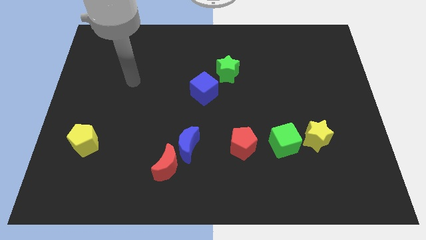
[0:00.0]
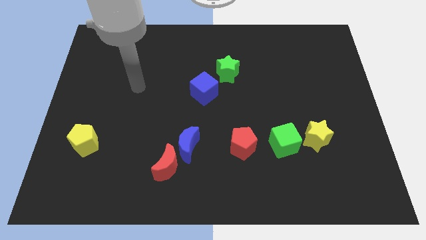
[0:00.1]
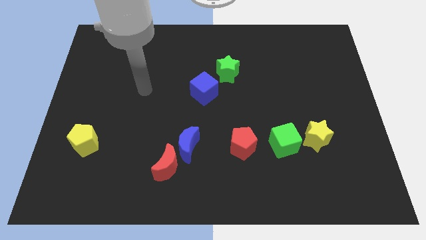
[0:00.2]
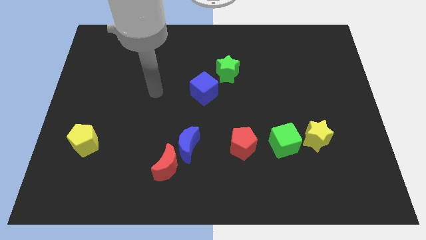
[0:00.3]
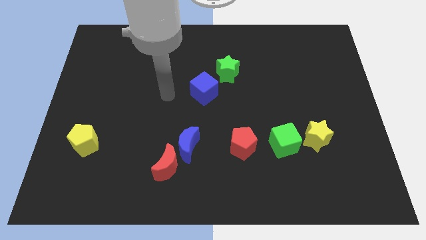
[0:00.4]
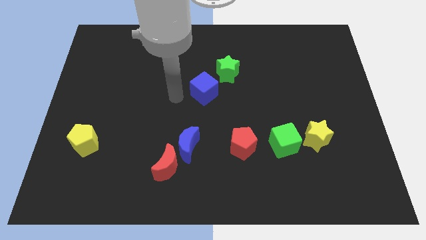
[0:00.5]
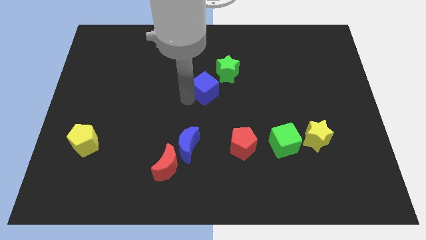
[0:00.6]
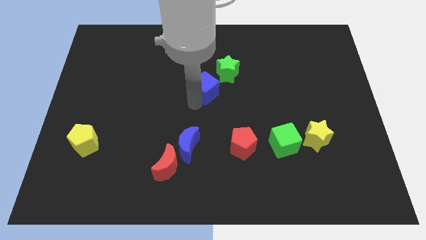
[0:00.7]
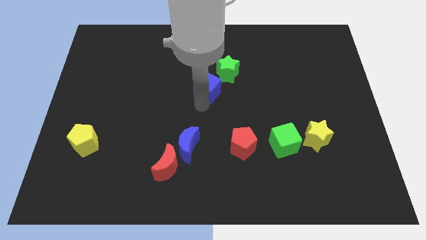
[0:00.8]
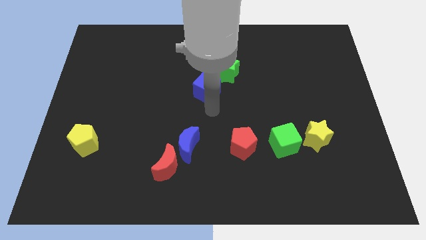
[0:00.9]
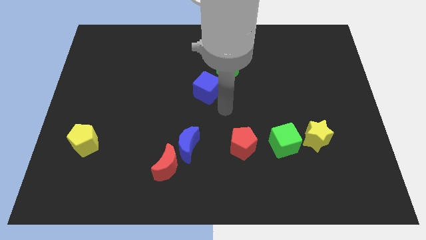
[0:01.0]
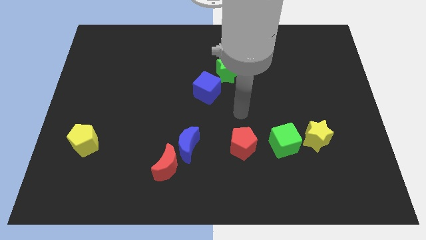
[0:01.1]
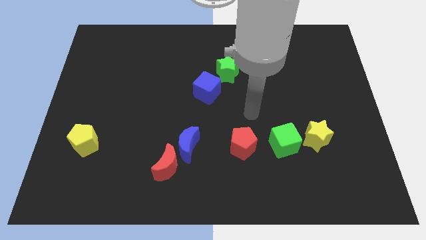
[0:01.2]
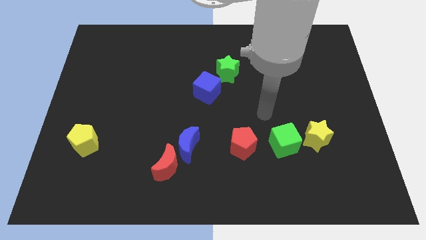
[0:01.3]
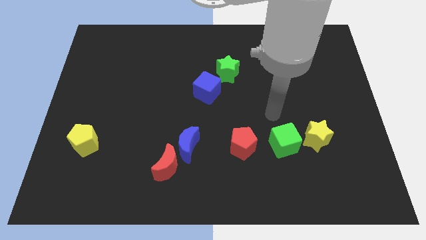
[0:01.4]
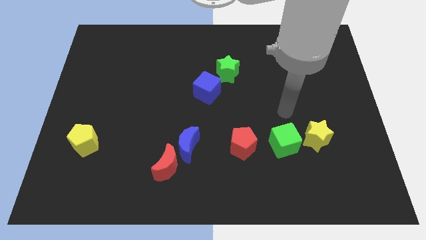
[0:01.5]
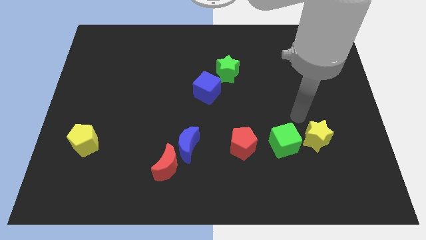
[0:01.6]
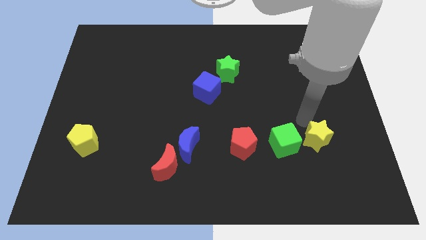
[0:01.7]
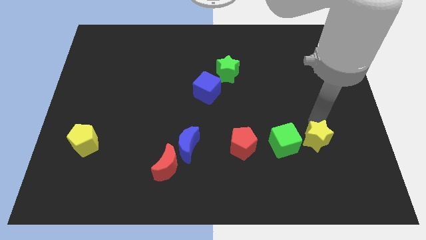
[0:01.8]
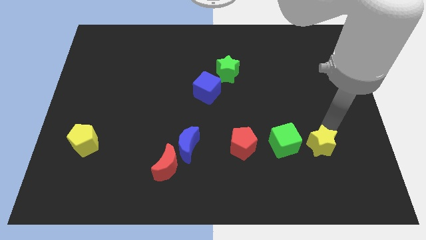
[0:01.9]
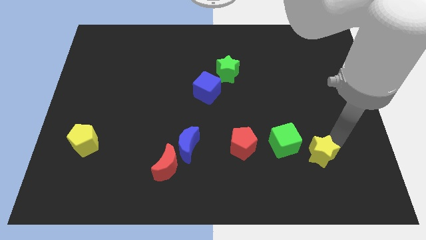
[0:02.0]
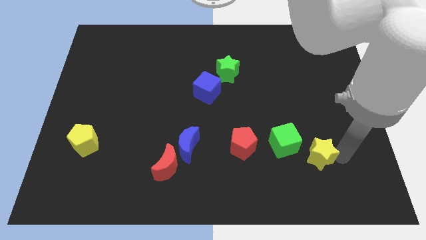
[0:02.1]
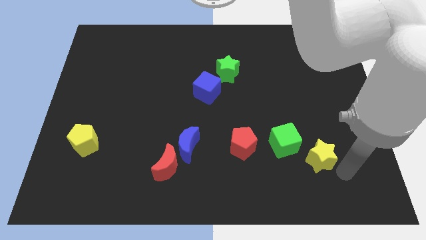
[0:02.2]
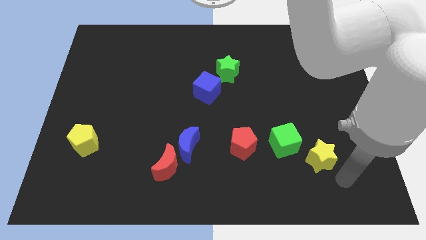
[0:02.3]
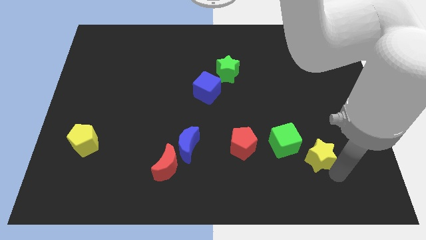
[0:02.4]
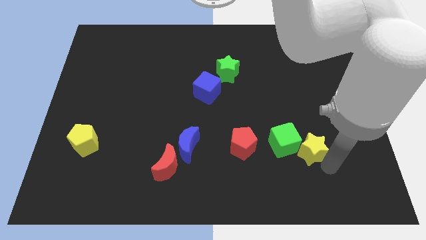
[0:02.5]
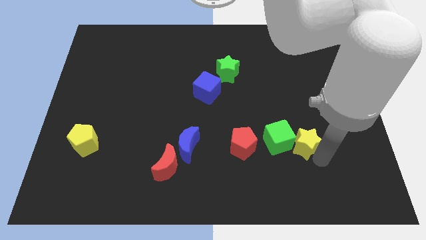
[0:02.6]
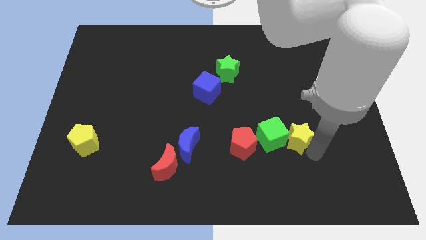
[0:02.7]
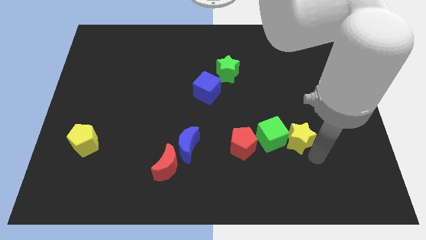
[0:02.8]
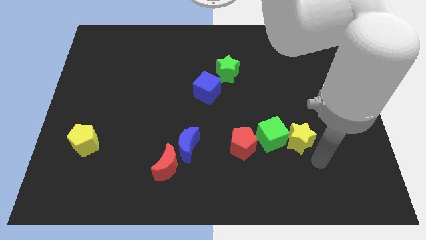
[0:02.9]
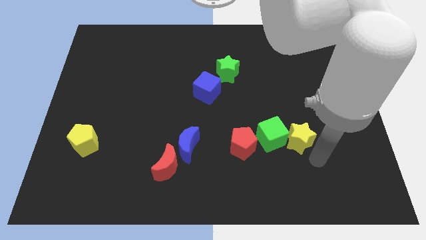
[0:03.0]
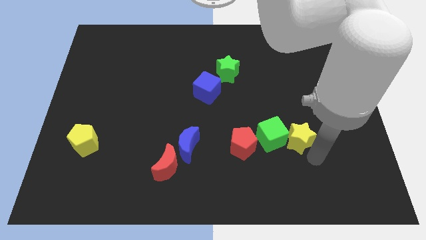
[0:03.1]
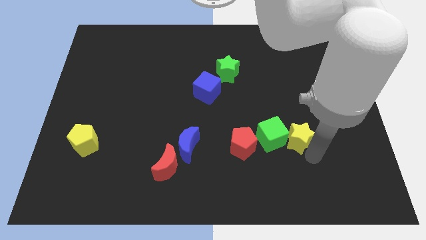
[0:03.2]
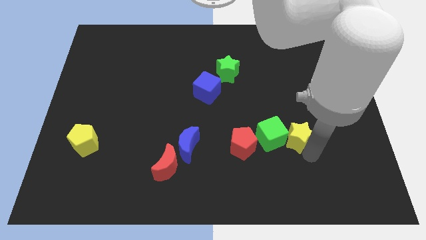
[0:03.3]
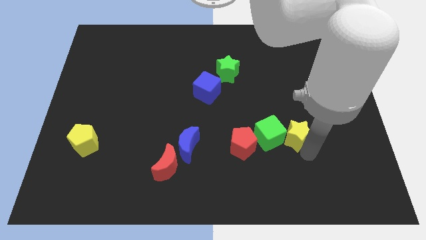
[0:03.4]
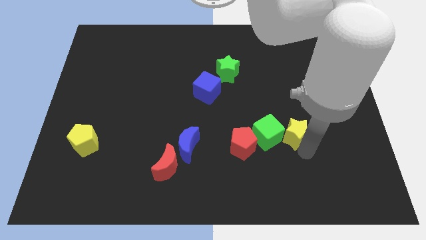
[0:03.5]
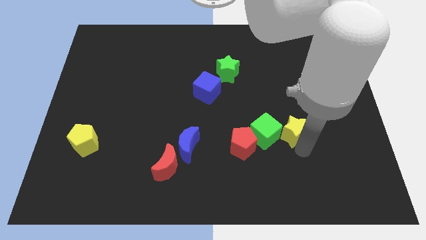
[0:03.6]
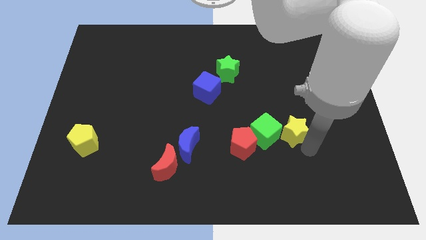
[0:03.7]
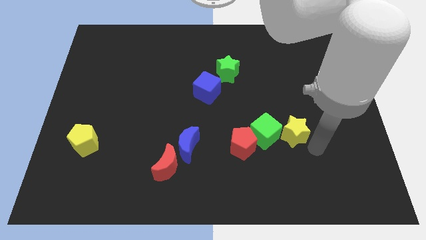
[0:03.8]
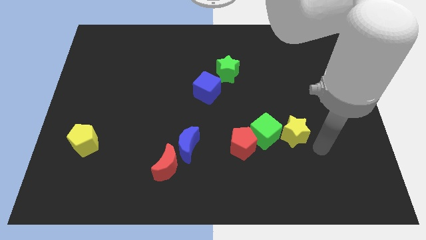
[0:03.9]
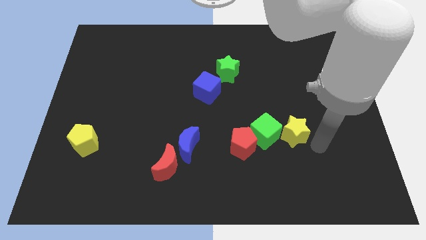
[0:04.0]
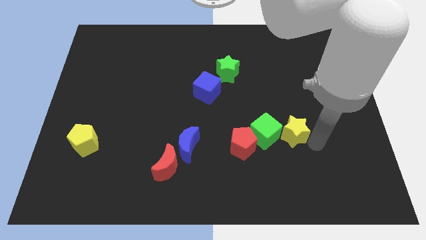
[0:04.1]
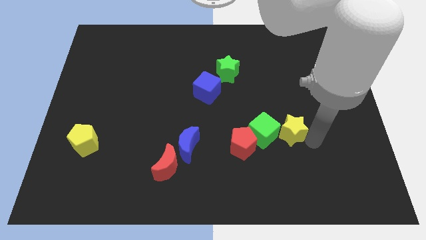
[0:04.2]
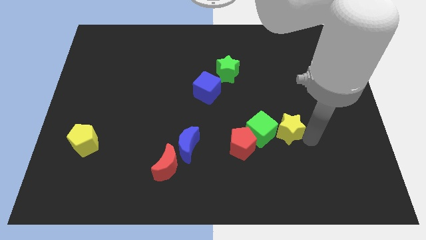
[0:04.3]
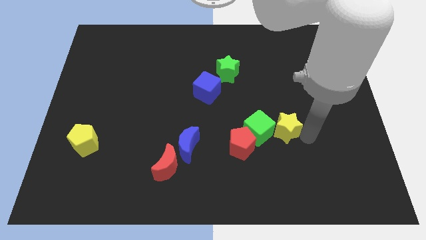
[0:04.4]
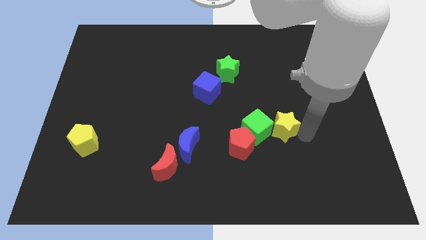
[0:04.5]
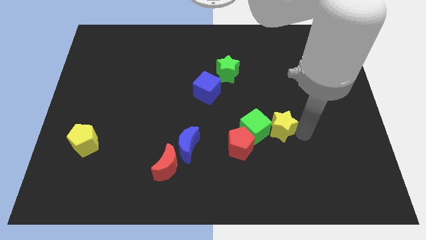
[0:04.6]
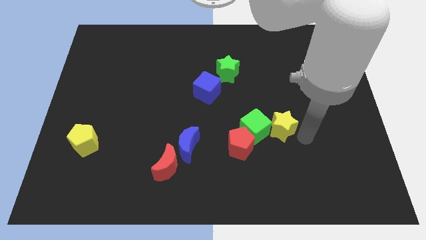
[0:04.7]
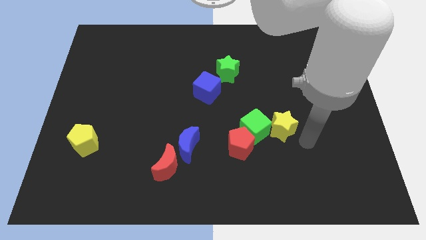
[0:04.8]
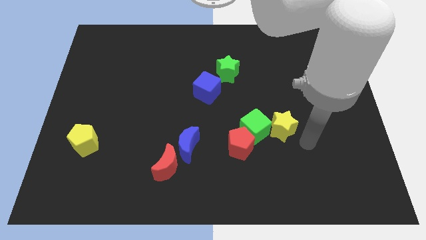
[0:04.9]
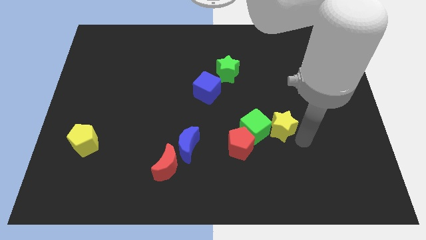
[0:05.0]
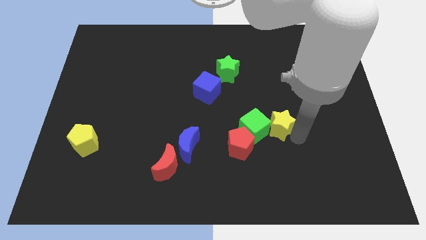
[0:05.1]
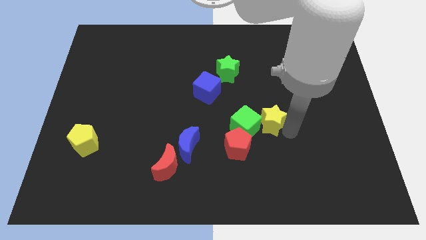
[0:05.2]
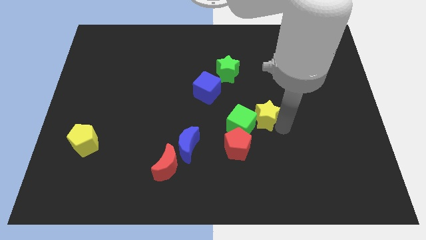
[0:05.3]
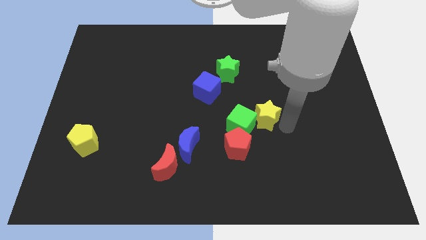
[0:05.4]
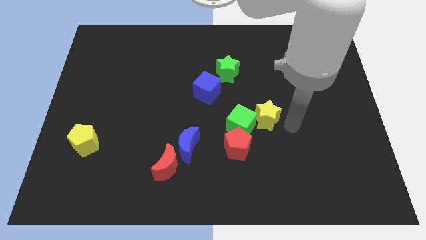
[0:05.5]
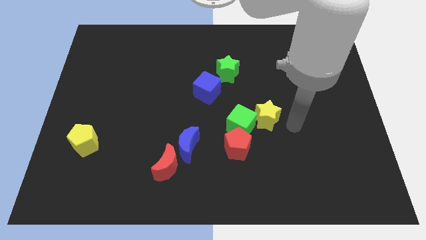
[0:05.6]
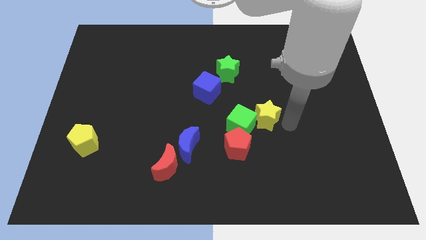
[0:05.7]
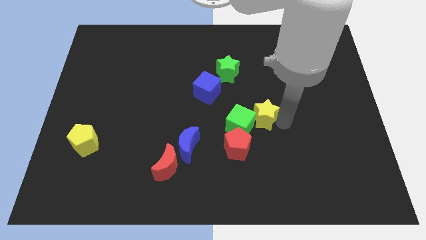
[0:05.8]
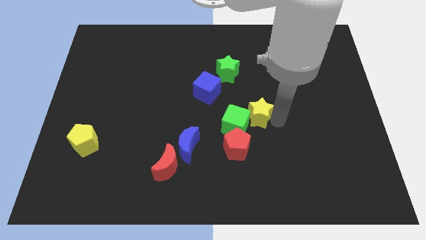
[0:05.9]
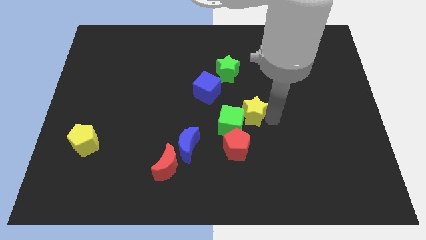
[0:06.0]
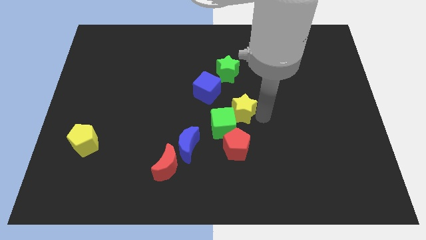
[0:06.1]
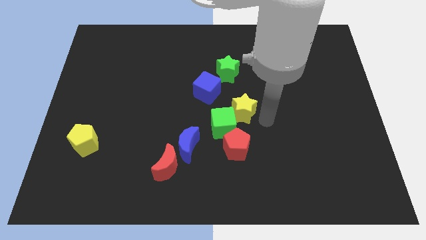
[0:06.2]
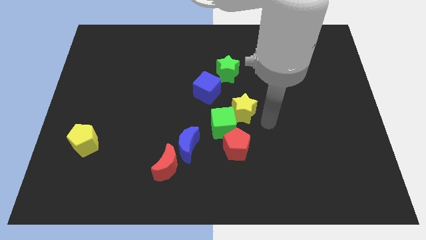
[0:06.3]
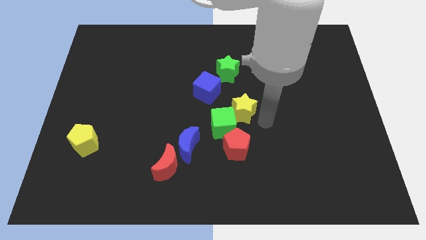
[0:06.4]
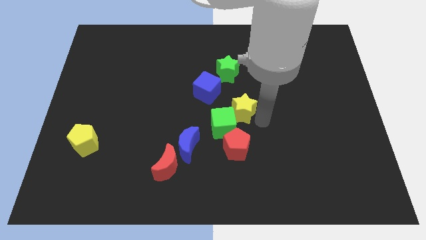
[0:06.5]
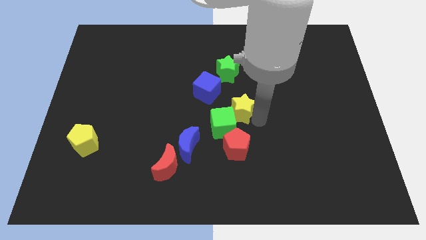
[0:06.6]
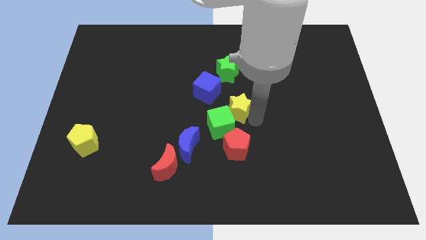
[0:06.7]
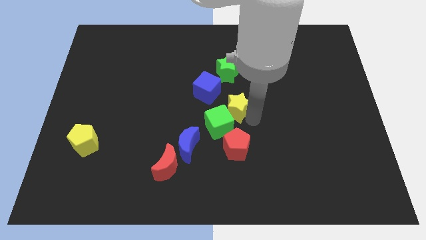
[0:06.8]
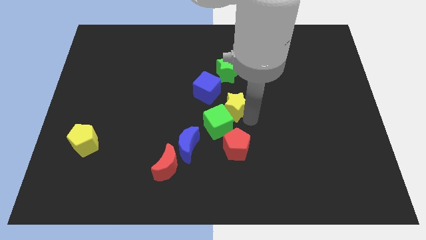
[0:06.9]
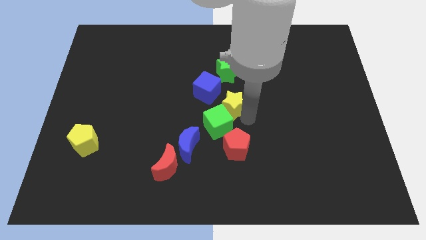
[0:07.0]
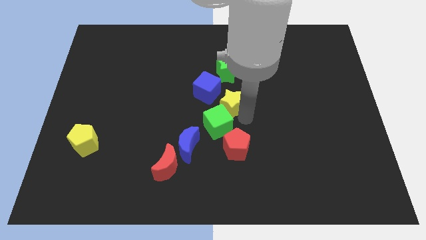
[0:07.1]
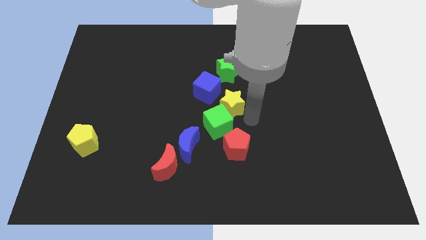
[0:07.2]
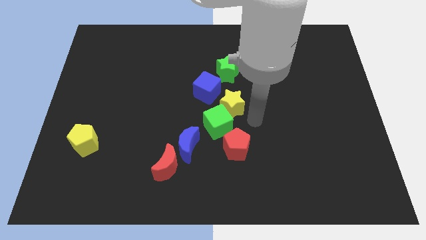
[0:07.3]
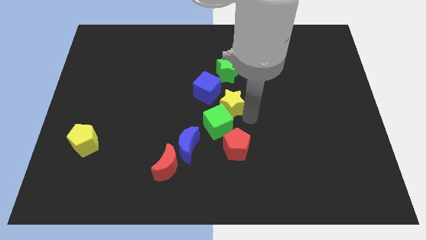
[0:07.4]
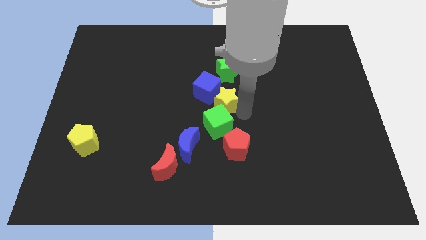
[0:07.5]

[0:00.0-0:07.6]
push the yellow star towards the blue cube

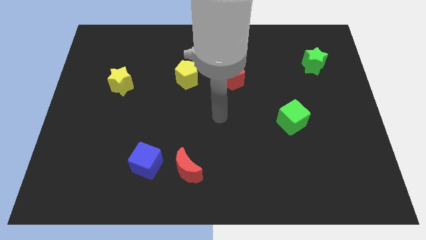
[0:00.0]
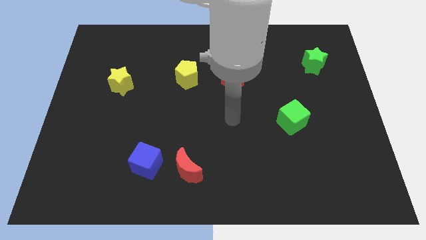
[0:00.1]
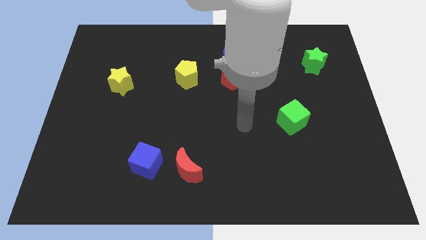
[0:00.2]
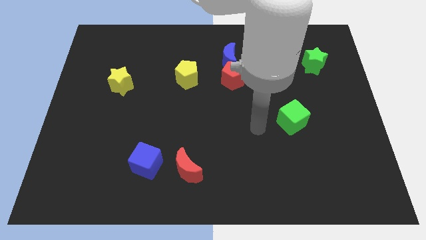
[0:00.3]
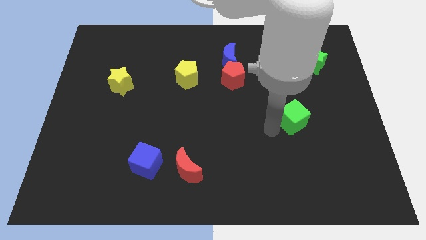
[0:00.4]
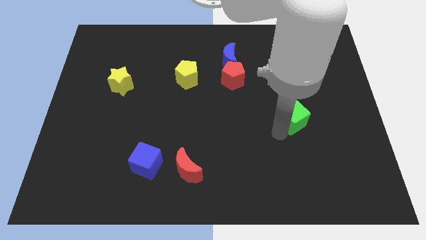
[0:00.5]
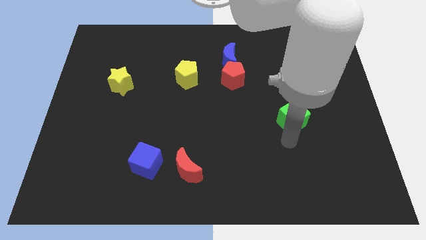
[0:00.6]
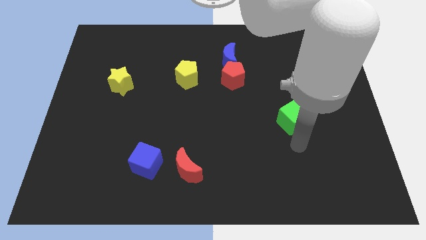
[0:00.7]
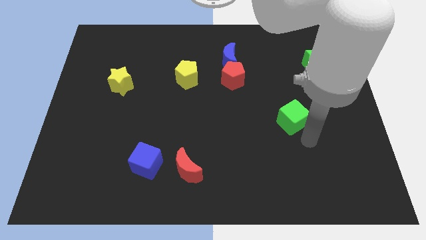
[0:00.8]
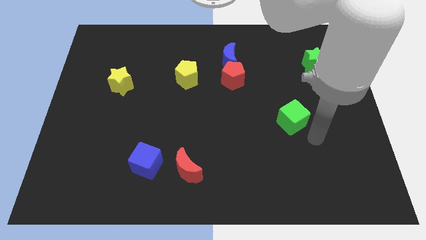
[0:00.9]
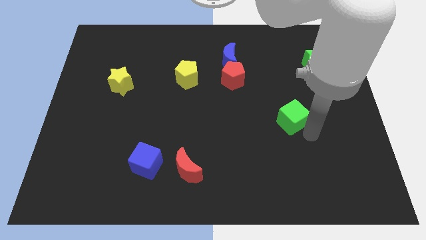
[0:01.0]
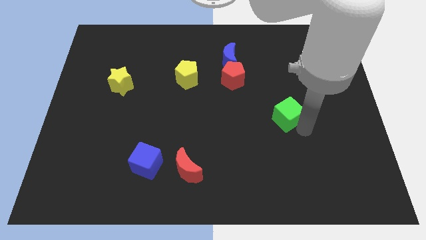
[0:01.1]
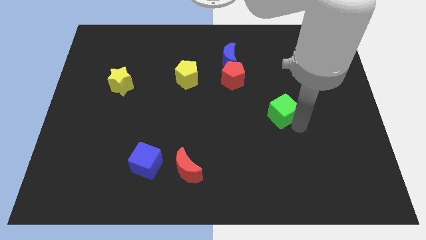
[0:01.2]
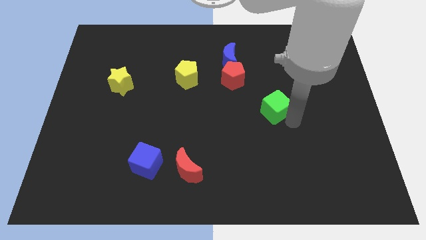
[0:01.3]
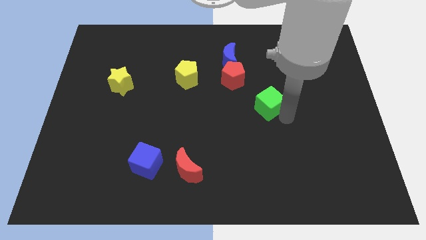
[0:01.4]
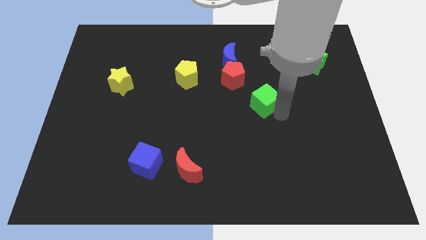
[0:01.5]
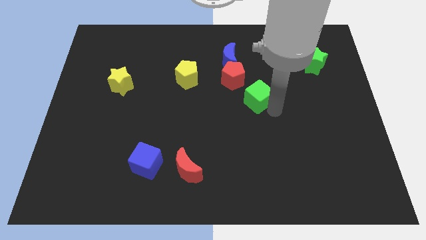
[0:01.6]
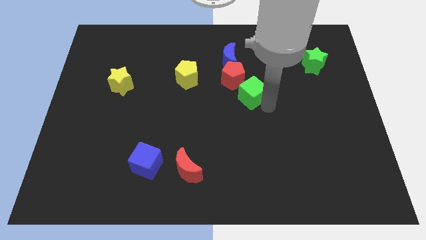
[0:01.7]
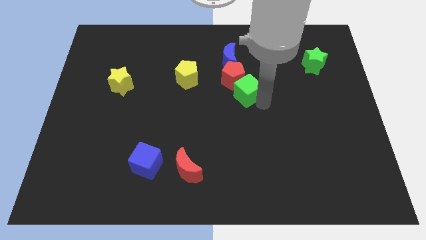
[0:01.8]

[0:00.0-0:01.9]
push the green cube close to the red pentagon
